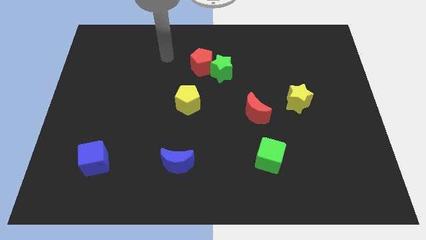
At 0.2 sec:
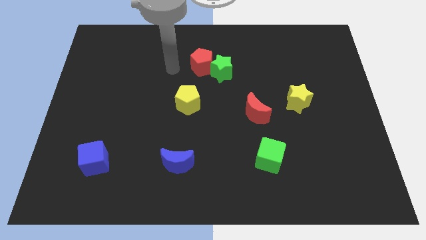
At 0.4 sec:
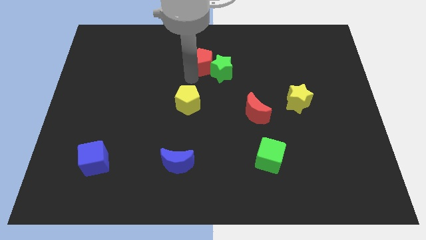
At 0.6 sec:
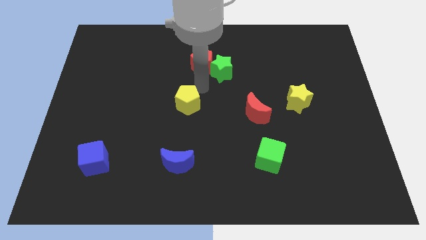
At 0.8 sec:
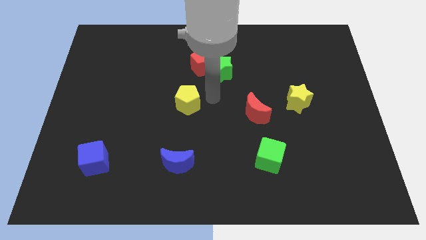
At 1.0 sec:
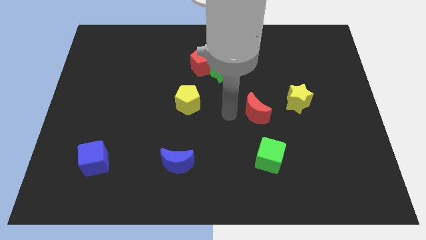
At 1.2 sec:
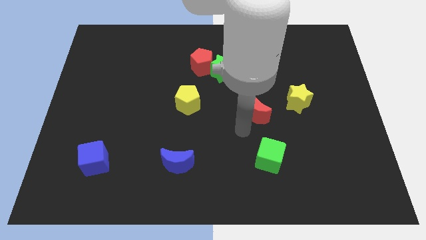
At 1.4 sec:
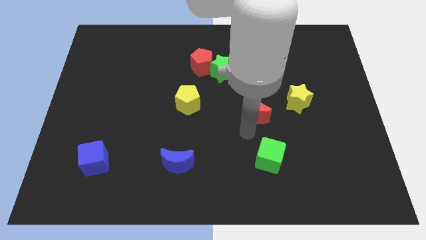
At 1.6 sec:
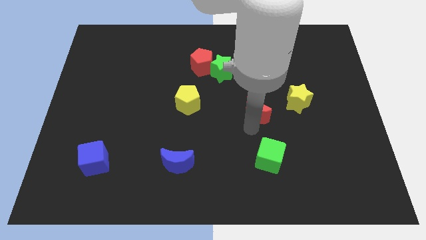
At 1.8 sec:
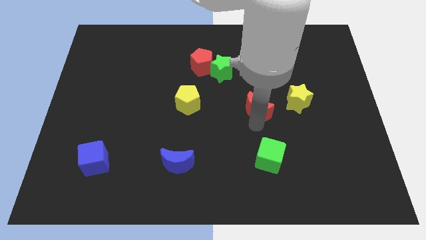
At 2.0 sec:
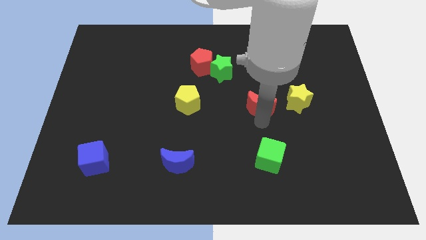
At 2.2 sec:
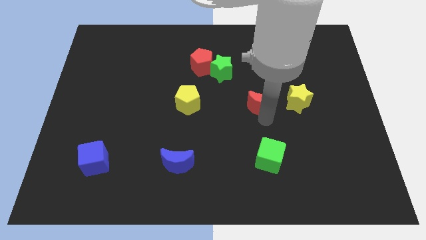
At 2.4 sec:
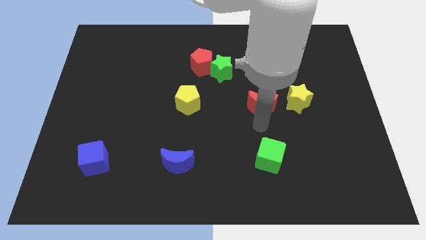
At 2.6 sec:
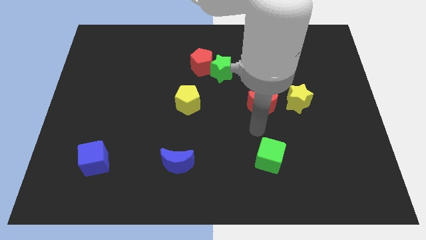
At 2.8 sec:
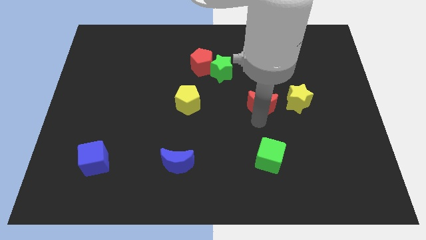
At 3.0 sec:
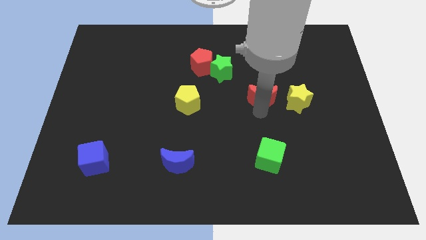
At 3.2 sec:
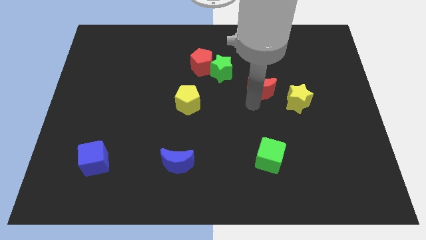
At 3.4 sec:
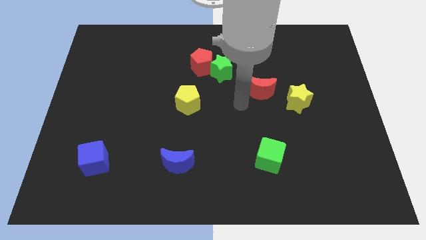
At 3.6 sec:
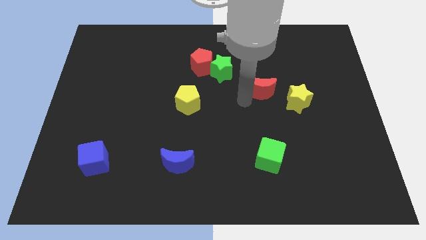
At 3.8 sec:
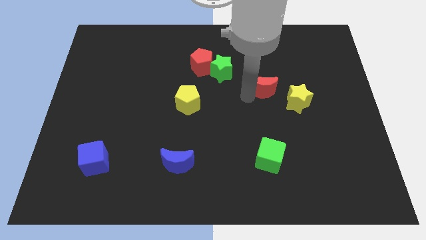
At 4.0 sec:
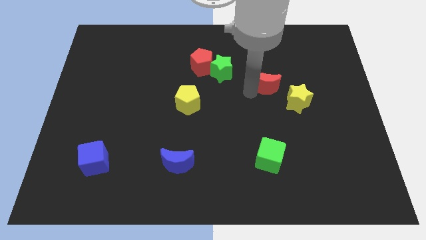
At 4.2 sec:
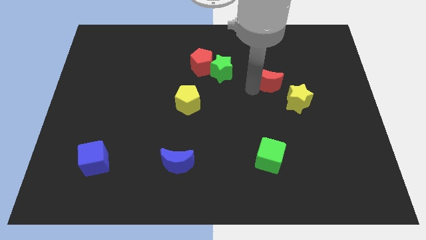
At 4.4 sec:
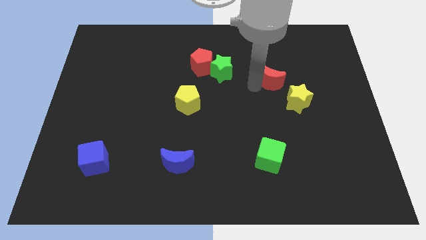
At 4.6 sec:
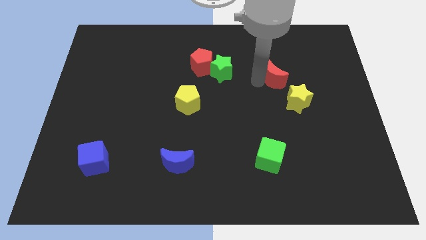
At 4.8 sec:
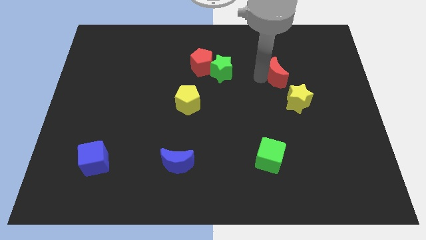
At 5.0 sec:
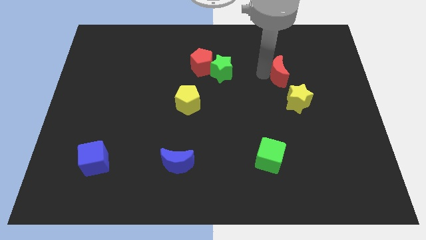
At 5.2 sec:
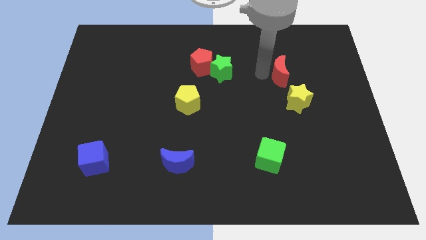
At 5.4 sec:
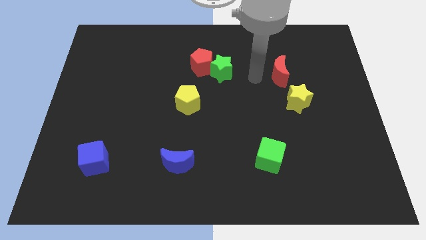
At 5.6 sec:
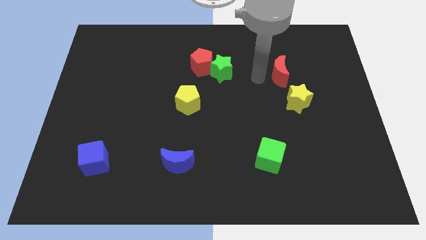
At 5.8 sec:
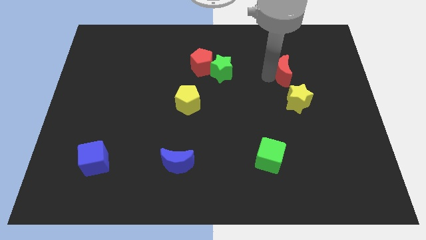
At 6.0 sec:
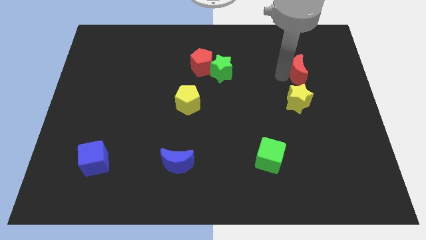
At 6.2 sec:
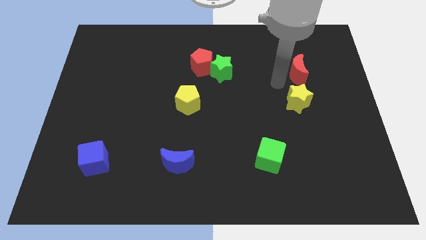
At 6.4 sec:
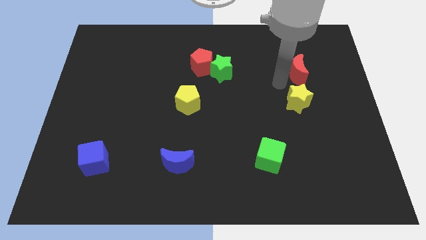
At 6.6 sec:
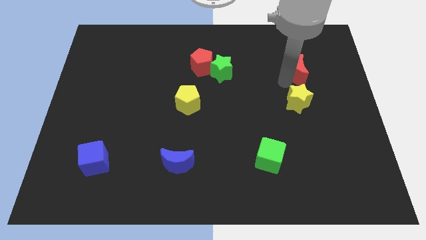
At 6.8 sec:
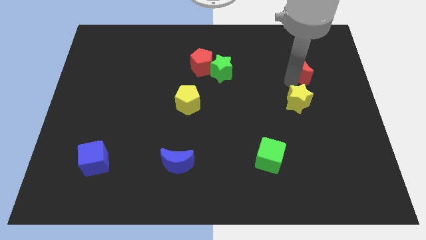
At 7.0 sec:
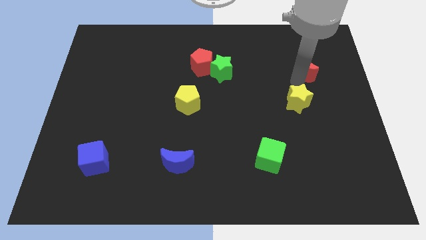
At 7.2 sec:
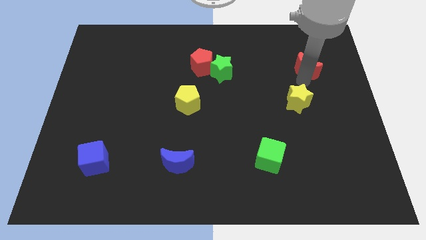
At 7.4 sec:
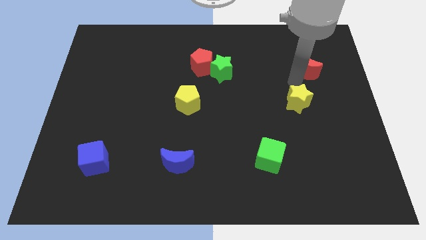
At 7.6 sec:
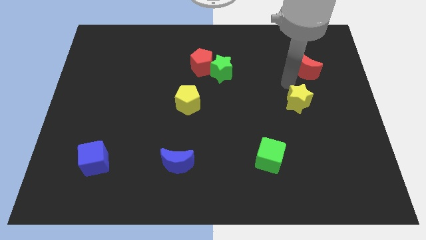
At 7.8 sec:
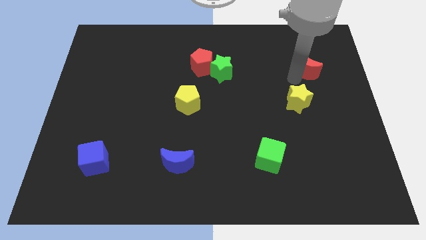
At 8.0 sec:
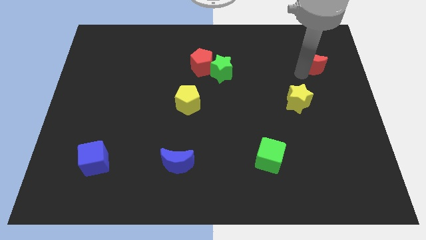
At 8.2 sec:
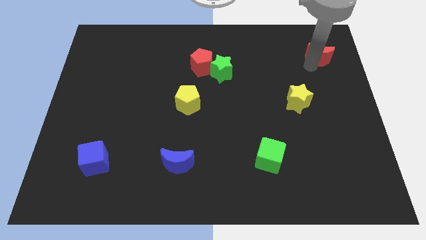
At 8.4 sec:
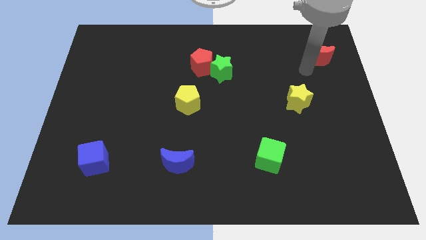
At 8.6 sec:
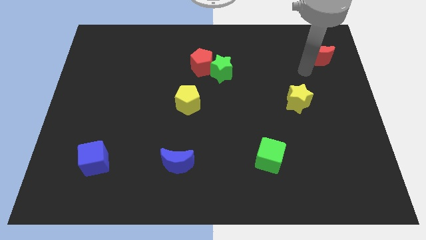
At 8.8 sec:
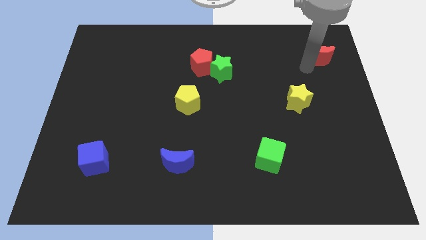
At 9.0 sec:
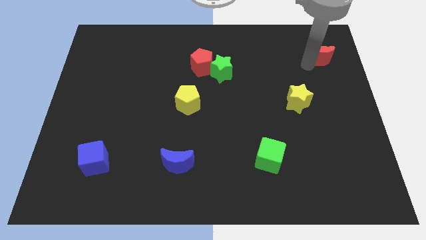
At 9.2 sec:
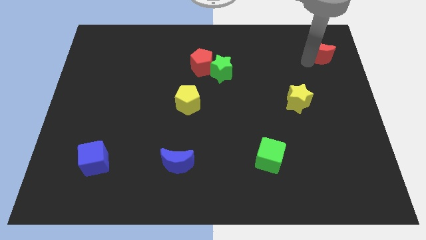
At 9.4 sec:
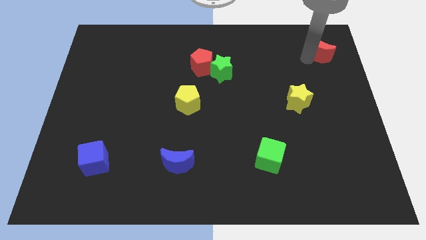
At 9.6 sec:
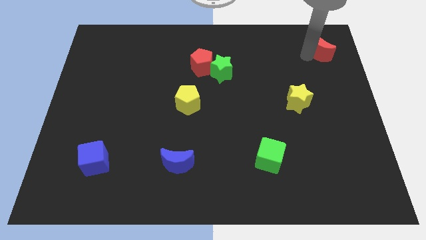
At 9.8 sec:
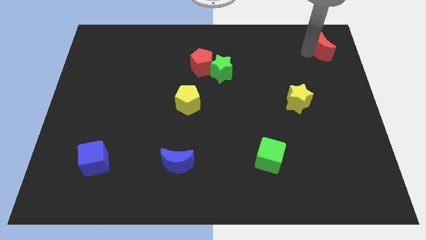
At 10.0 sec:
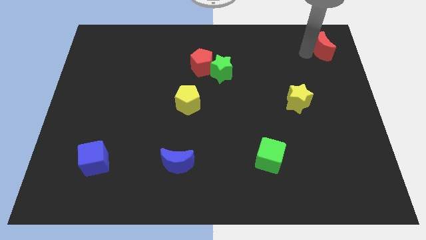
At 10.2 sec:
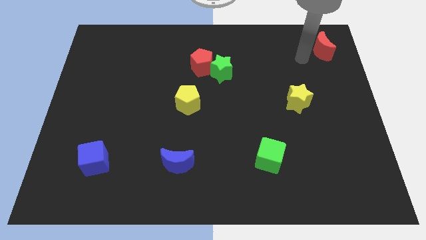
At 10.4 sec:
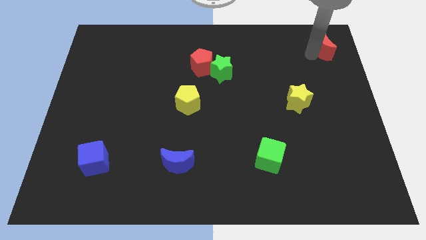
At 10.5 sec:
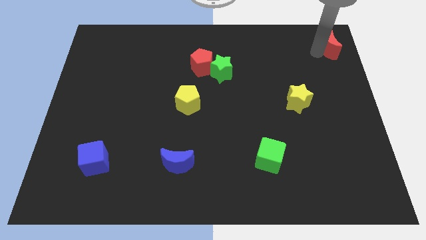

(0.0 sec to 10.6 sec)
put the red moon to the top right

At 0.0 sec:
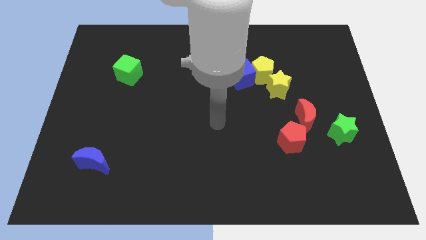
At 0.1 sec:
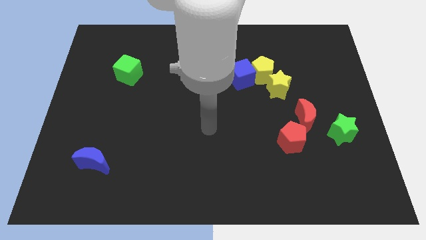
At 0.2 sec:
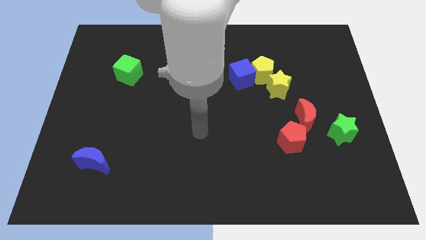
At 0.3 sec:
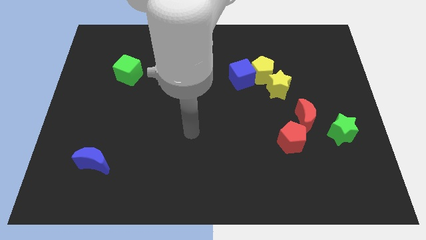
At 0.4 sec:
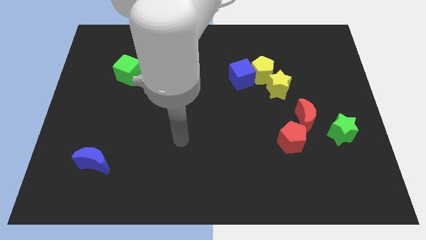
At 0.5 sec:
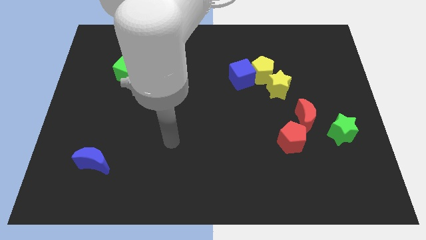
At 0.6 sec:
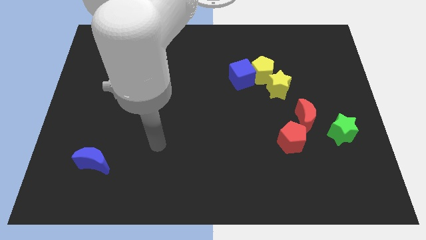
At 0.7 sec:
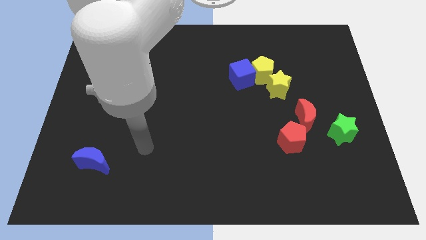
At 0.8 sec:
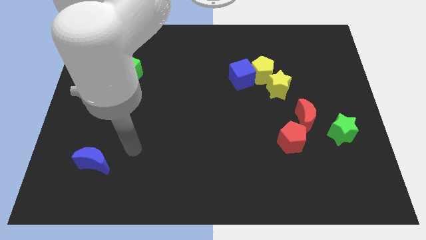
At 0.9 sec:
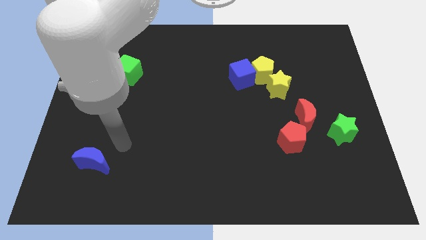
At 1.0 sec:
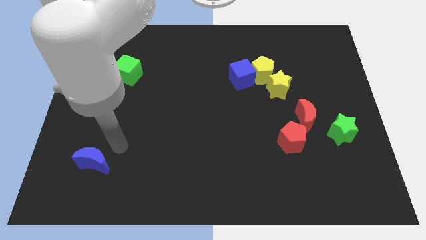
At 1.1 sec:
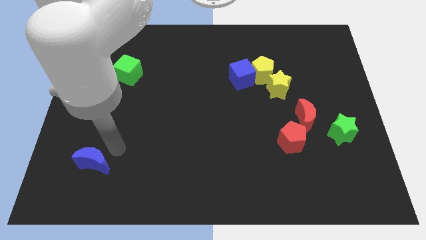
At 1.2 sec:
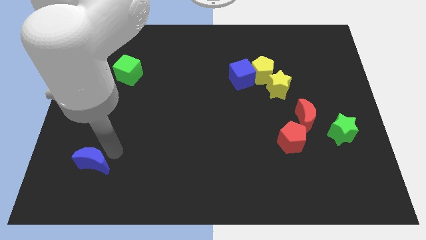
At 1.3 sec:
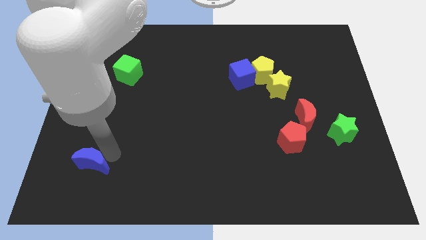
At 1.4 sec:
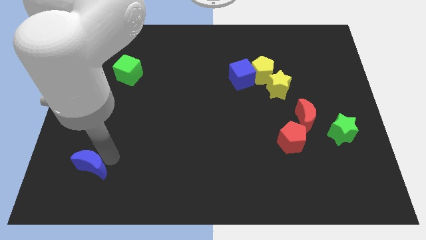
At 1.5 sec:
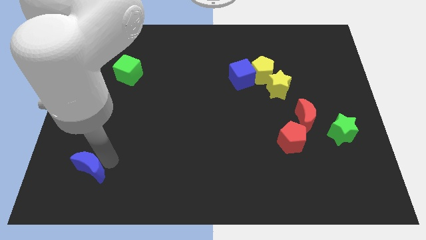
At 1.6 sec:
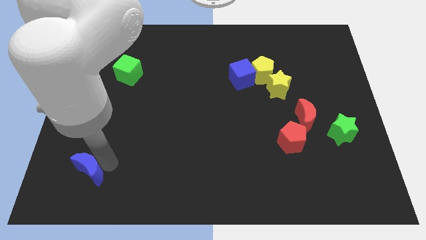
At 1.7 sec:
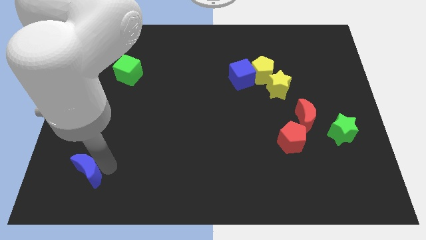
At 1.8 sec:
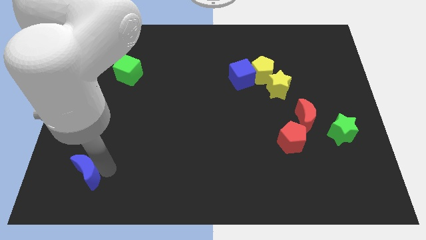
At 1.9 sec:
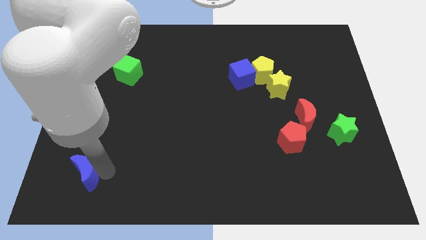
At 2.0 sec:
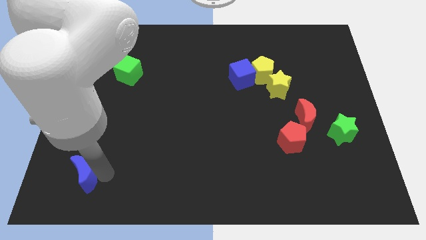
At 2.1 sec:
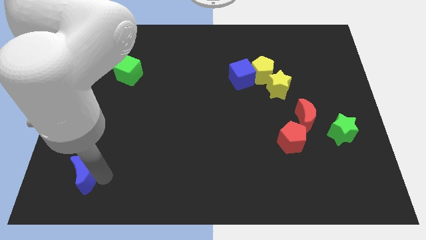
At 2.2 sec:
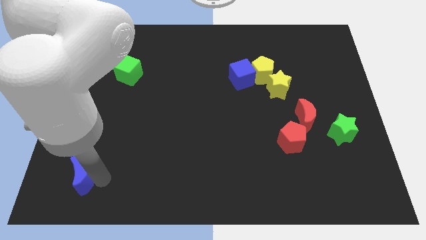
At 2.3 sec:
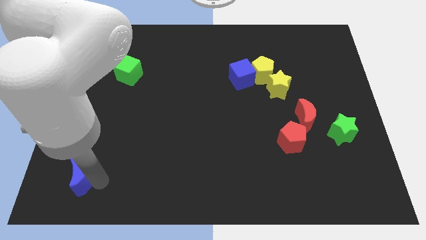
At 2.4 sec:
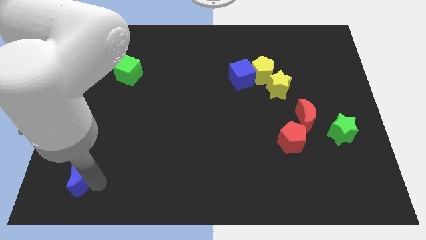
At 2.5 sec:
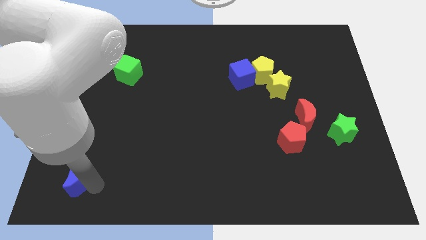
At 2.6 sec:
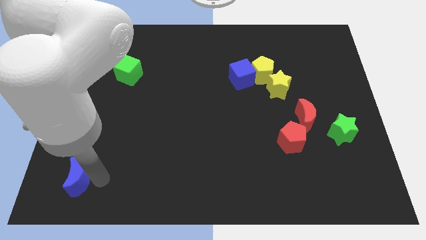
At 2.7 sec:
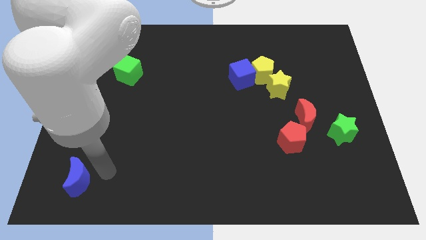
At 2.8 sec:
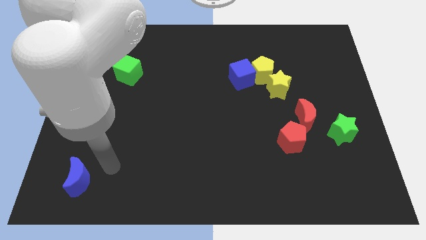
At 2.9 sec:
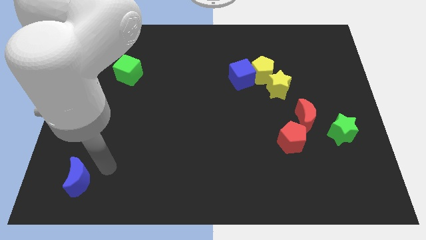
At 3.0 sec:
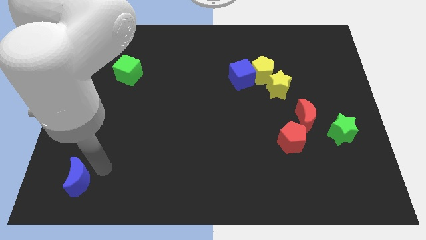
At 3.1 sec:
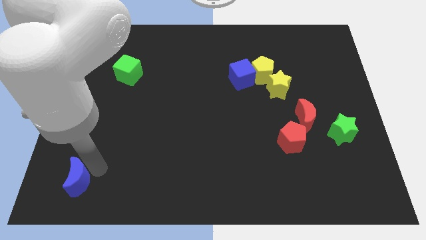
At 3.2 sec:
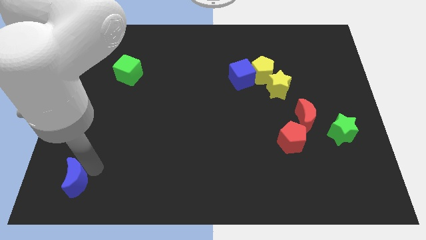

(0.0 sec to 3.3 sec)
push the blue moon to the bottom left corner
